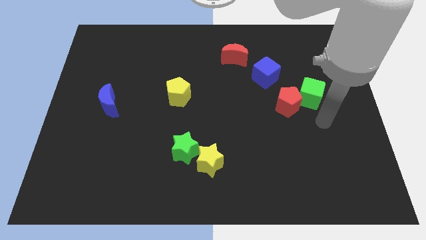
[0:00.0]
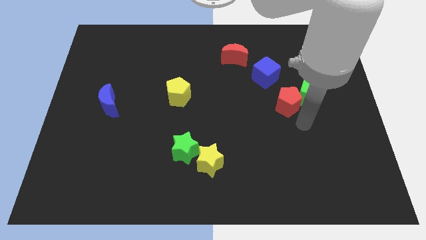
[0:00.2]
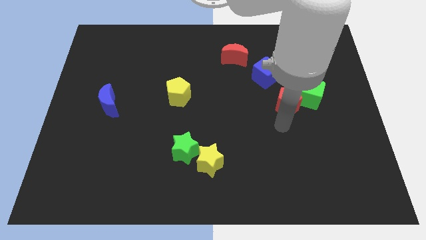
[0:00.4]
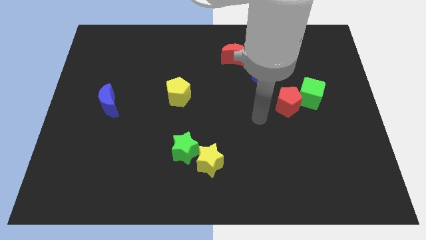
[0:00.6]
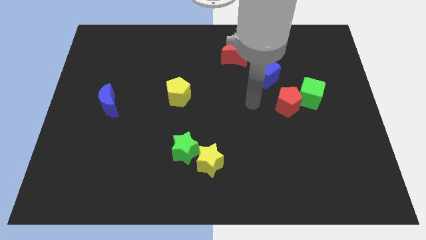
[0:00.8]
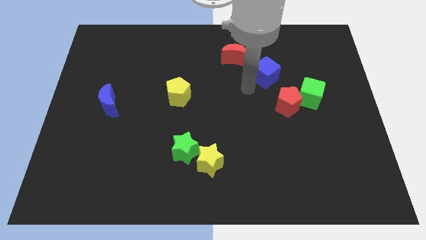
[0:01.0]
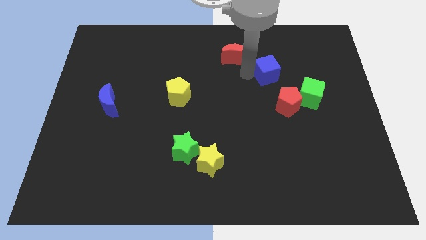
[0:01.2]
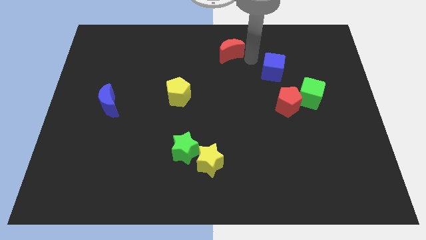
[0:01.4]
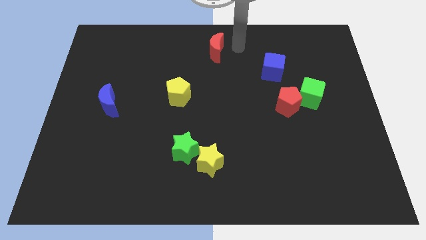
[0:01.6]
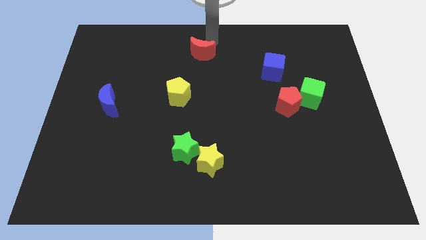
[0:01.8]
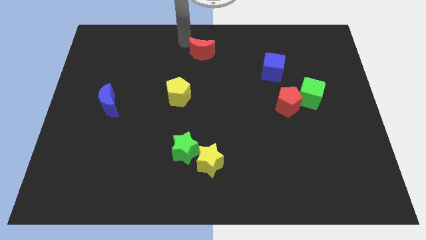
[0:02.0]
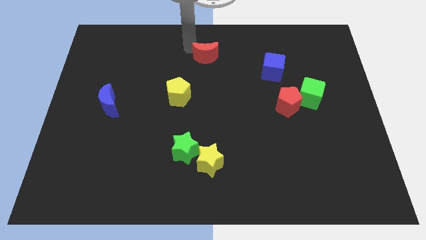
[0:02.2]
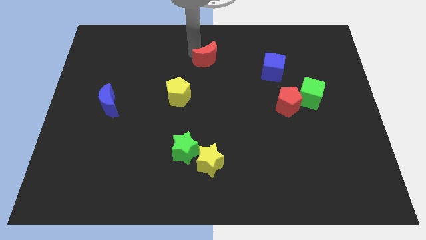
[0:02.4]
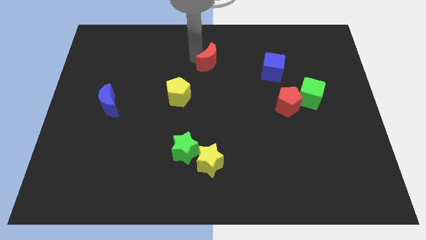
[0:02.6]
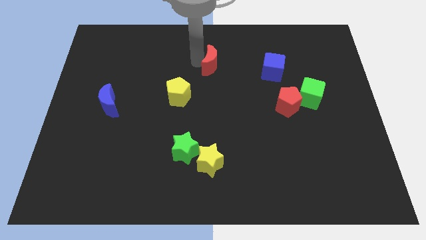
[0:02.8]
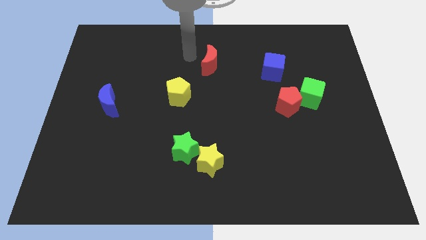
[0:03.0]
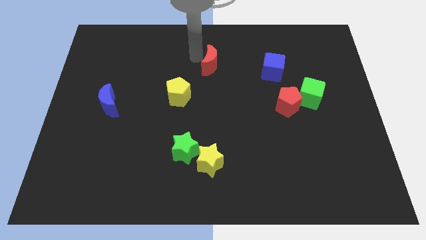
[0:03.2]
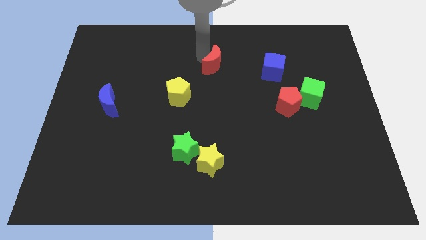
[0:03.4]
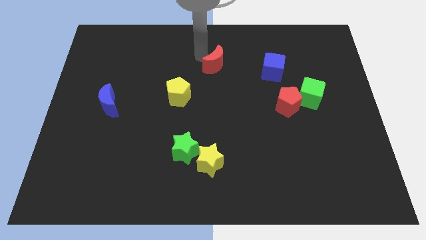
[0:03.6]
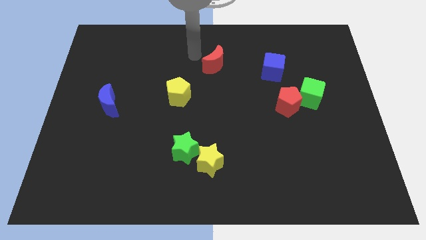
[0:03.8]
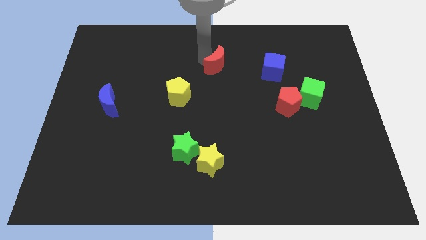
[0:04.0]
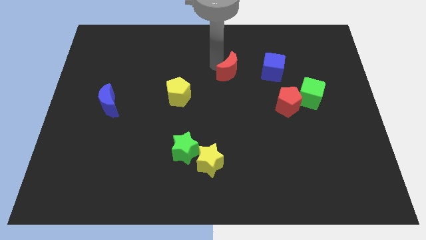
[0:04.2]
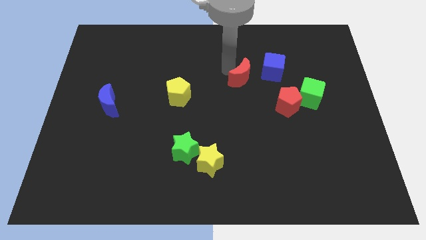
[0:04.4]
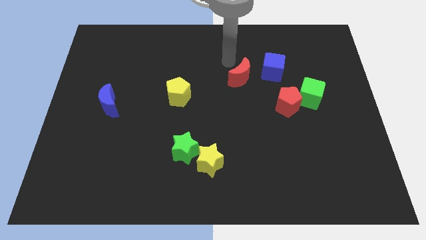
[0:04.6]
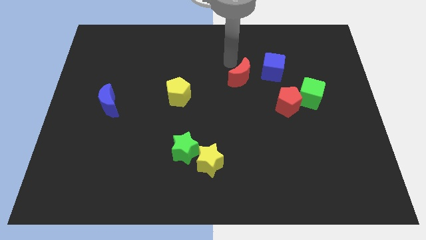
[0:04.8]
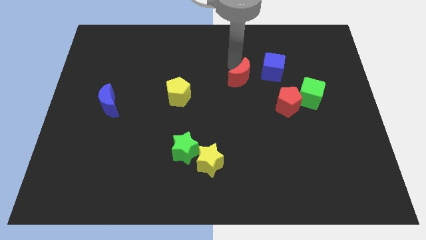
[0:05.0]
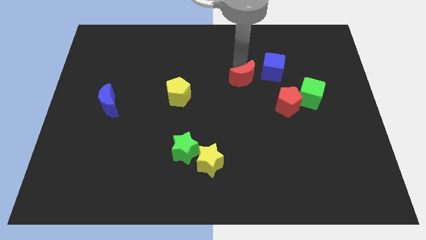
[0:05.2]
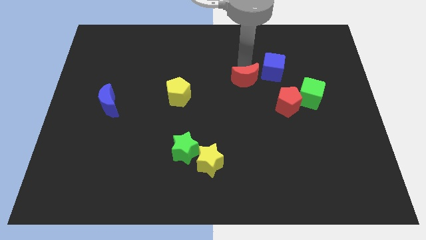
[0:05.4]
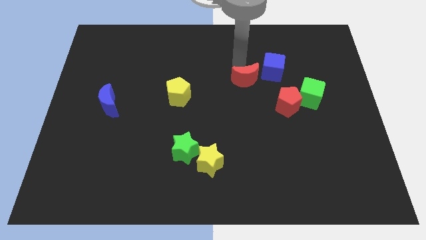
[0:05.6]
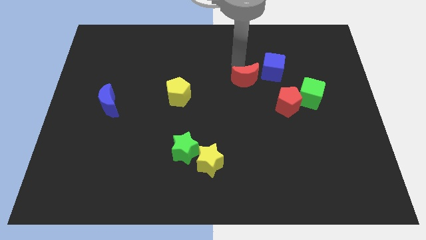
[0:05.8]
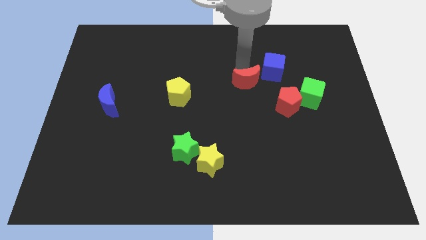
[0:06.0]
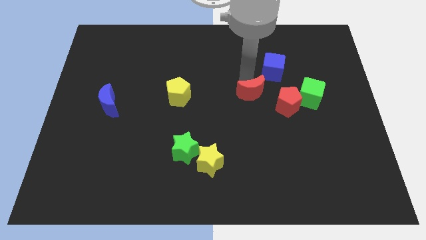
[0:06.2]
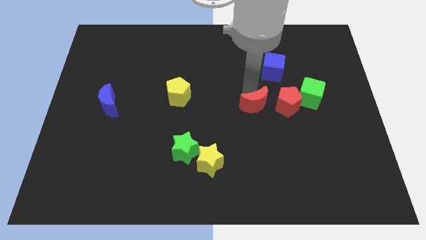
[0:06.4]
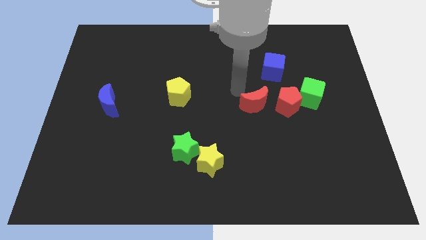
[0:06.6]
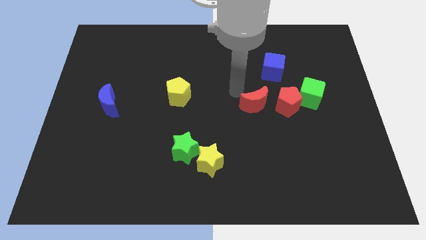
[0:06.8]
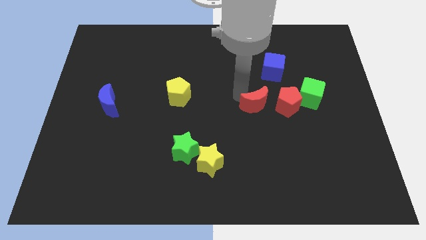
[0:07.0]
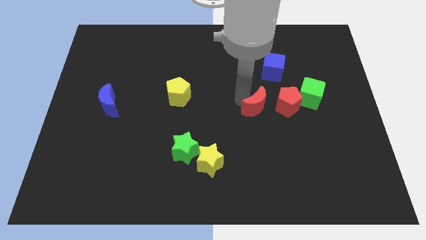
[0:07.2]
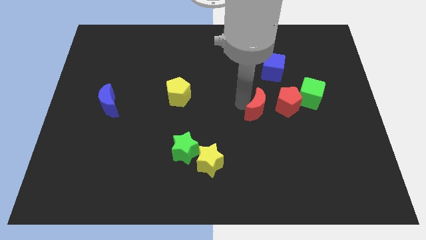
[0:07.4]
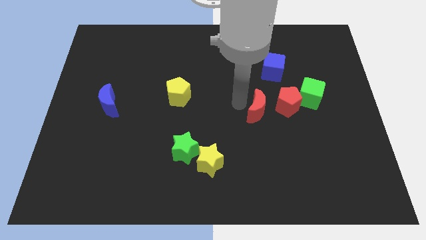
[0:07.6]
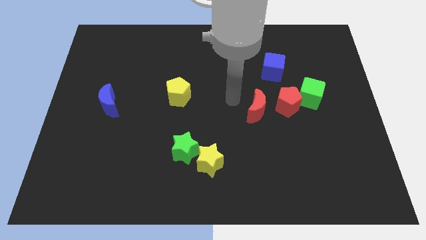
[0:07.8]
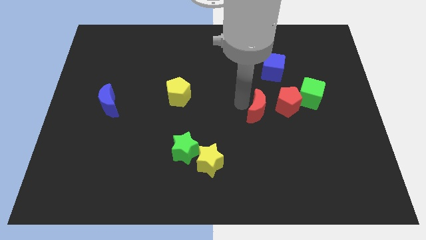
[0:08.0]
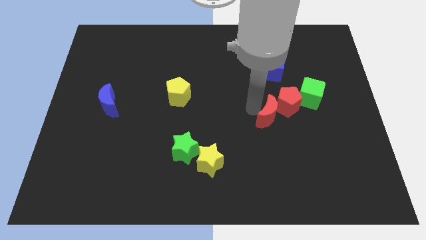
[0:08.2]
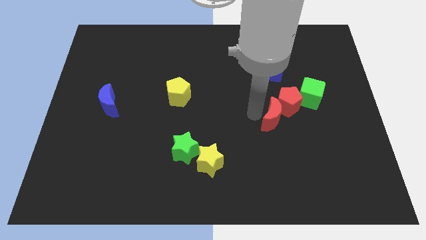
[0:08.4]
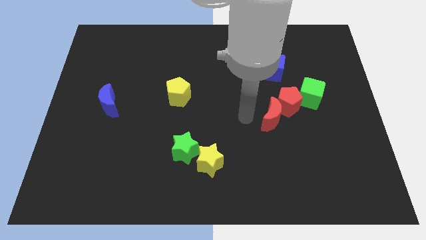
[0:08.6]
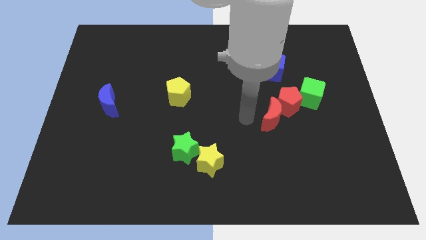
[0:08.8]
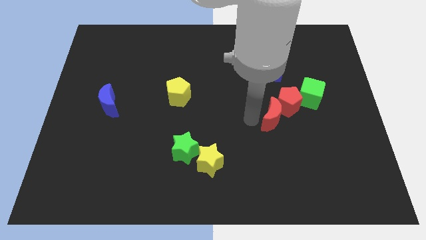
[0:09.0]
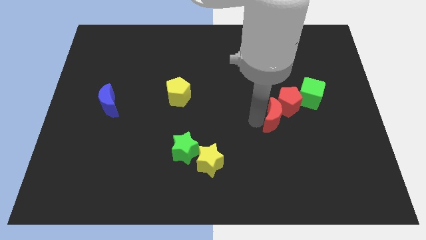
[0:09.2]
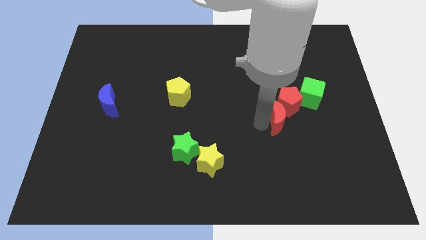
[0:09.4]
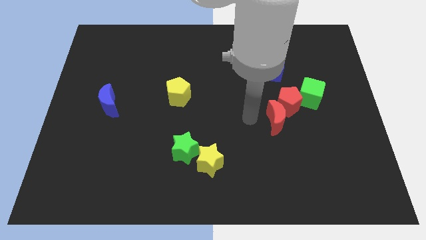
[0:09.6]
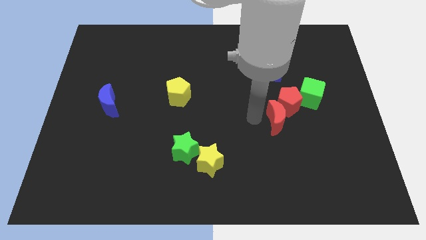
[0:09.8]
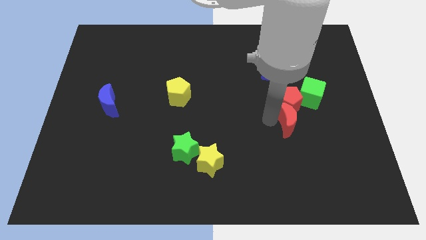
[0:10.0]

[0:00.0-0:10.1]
push the red moon down and right

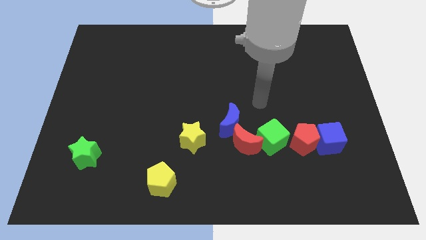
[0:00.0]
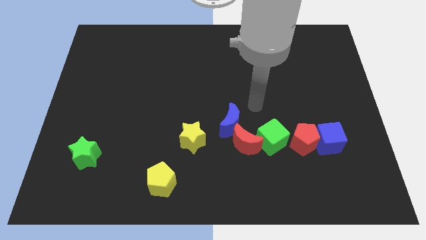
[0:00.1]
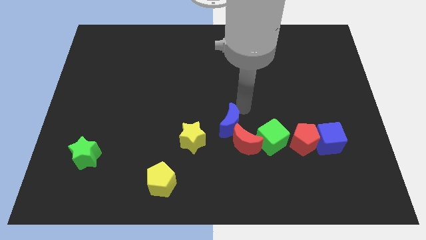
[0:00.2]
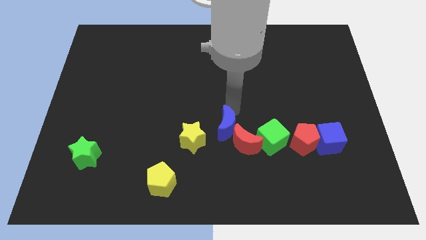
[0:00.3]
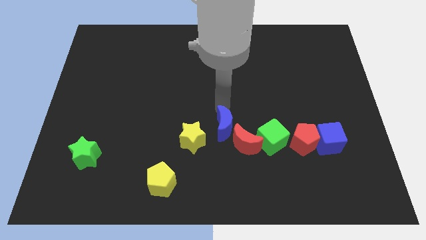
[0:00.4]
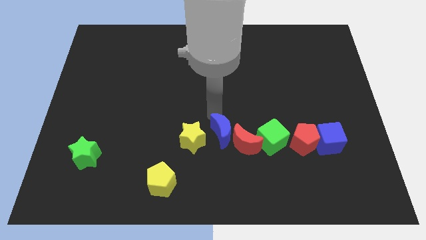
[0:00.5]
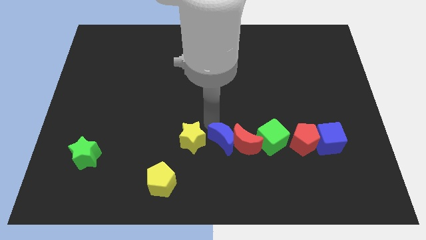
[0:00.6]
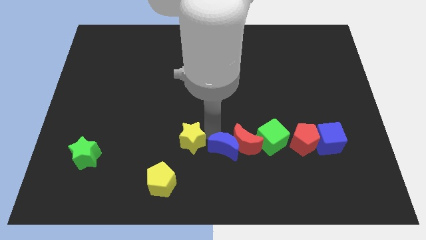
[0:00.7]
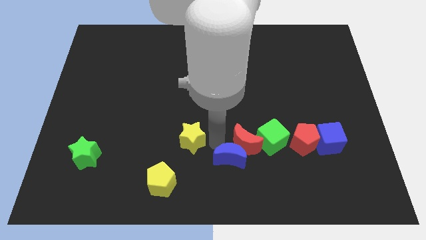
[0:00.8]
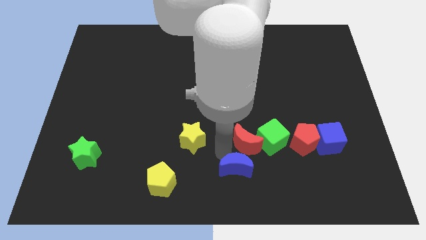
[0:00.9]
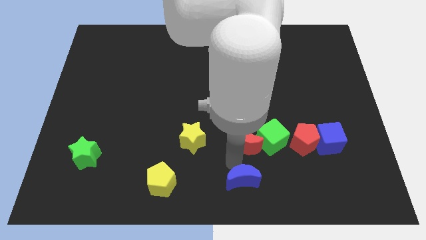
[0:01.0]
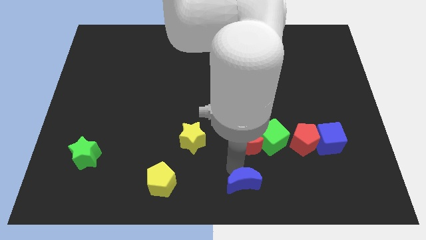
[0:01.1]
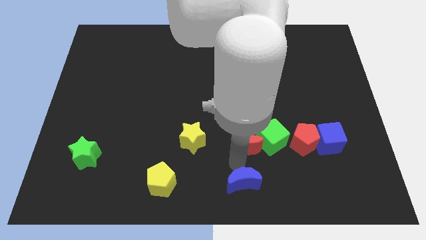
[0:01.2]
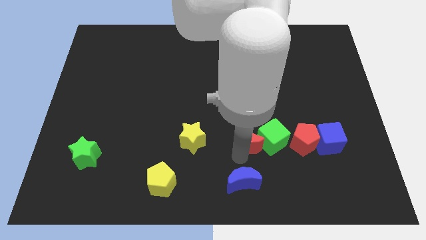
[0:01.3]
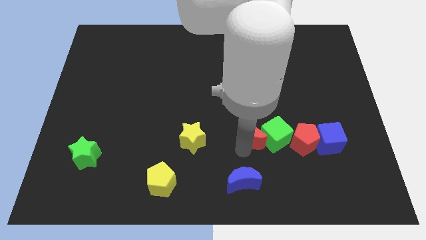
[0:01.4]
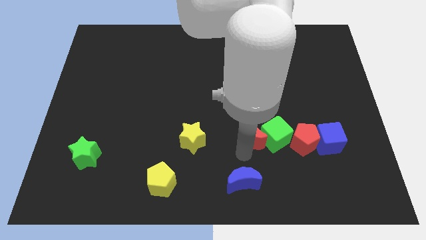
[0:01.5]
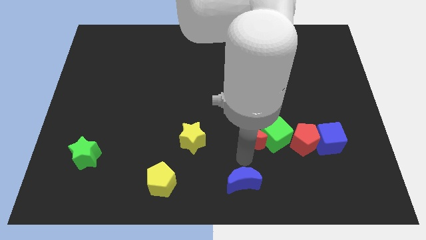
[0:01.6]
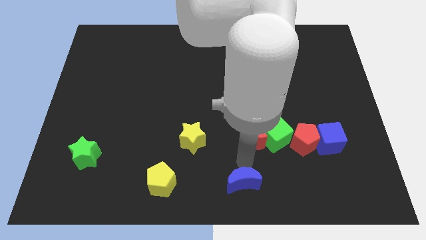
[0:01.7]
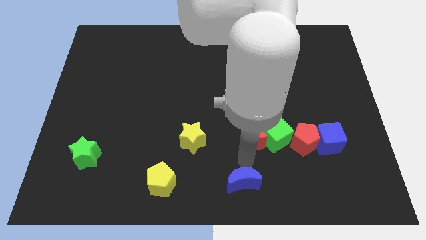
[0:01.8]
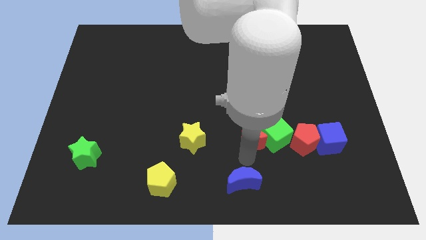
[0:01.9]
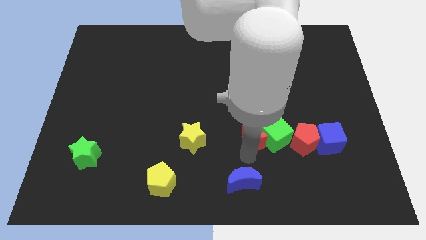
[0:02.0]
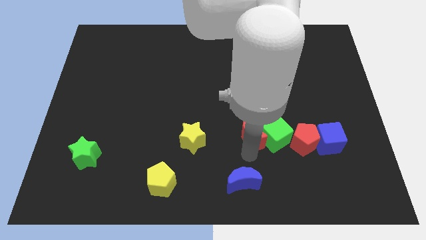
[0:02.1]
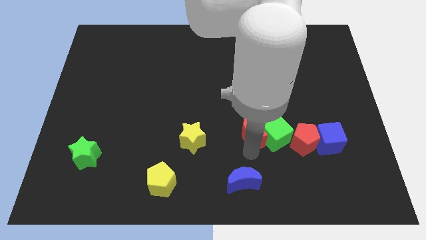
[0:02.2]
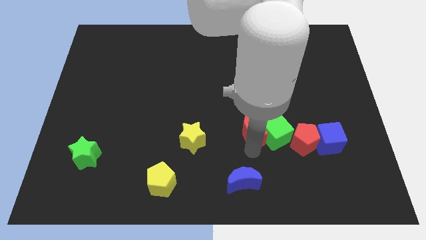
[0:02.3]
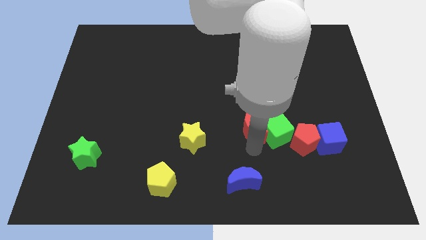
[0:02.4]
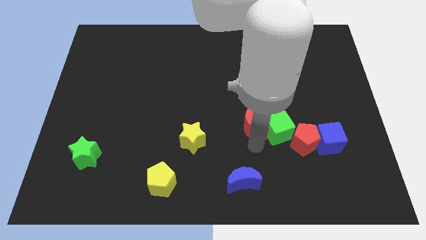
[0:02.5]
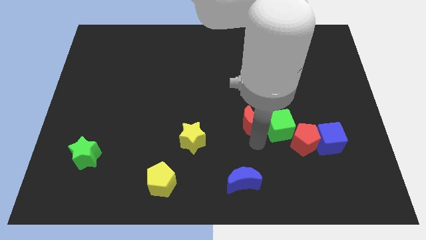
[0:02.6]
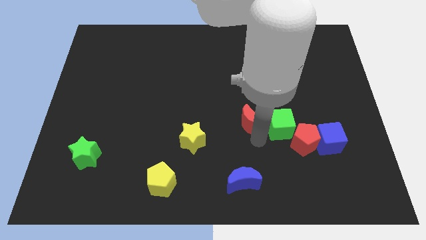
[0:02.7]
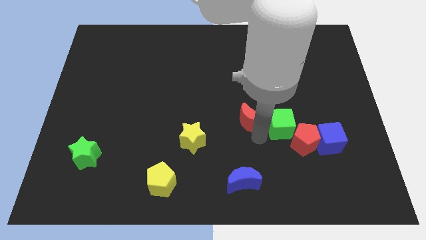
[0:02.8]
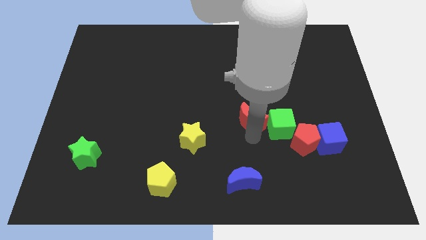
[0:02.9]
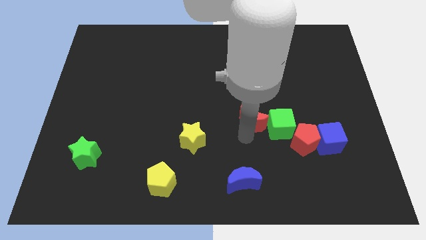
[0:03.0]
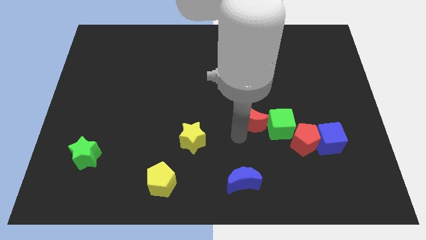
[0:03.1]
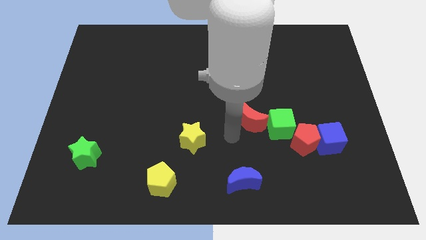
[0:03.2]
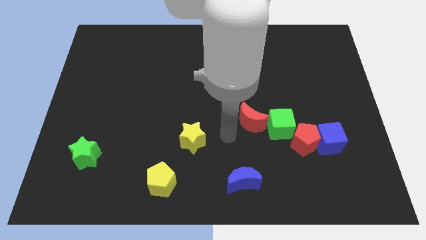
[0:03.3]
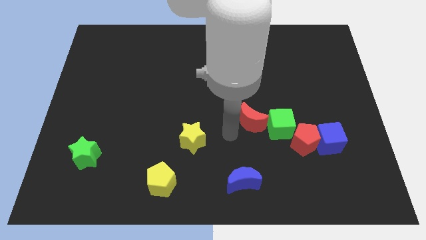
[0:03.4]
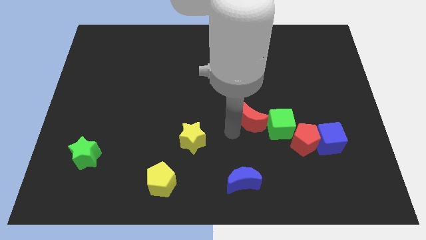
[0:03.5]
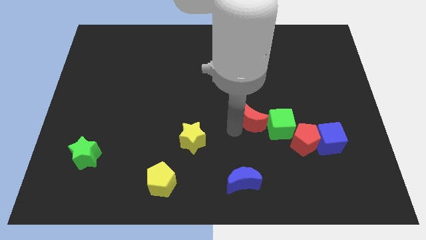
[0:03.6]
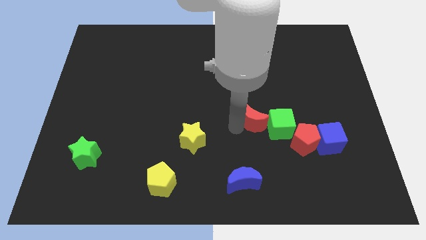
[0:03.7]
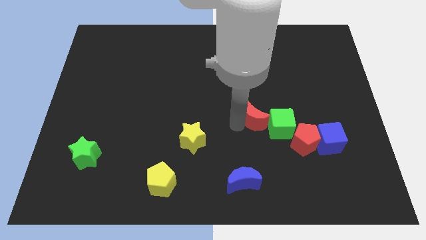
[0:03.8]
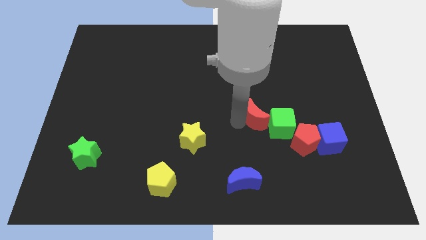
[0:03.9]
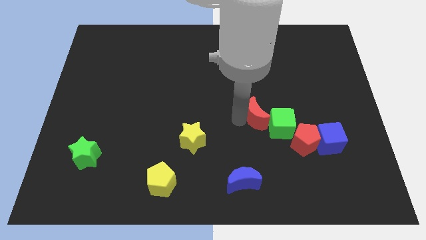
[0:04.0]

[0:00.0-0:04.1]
slightly move the red moon upwards and to the right
